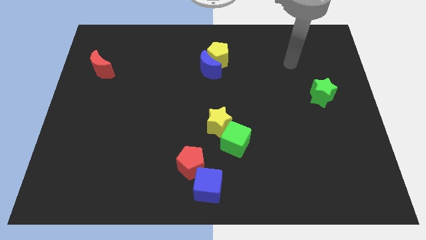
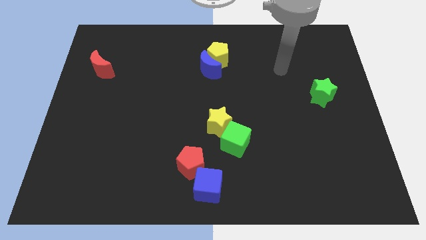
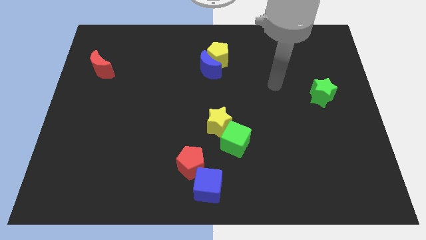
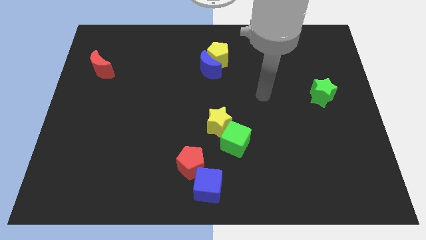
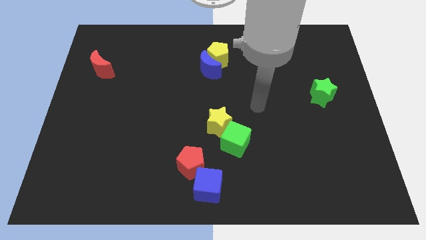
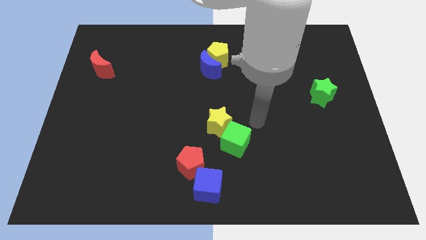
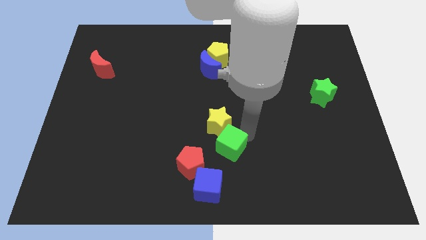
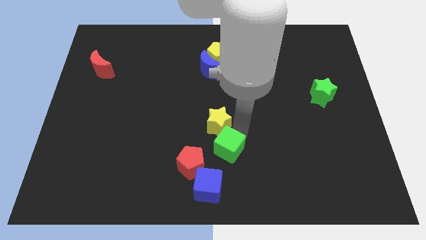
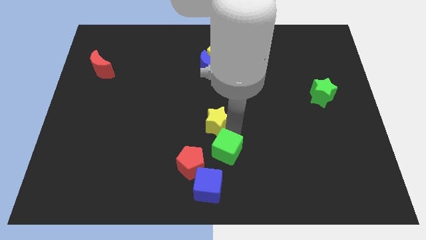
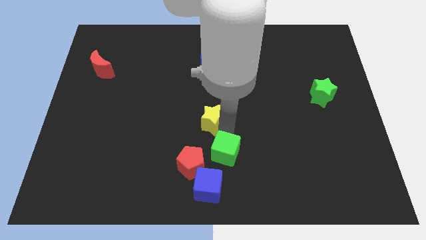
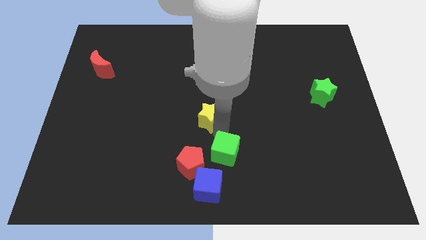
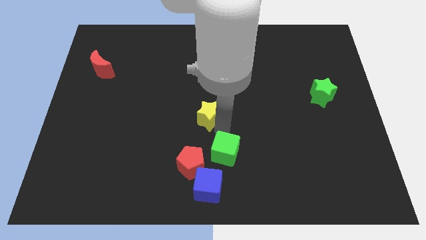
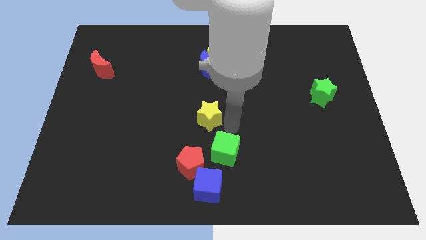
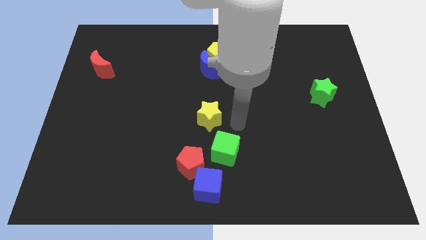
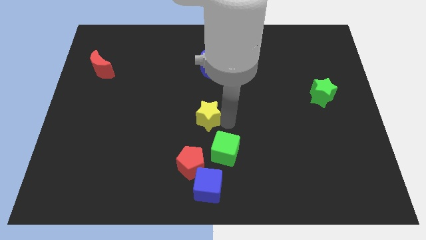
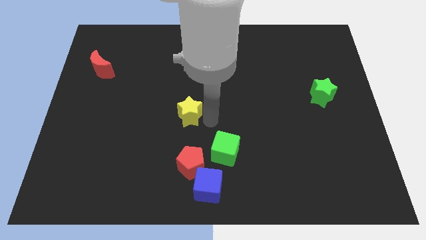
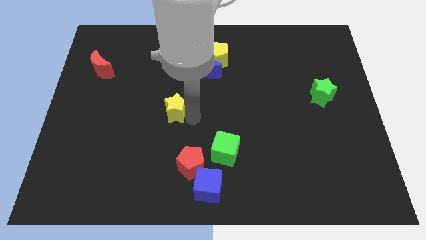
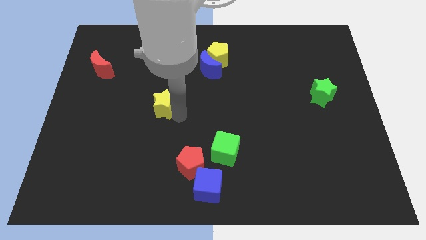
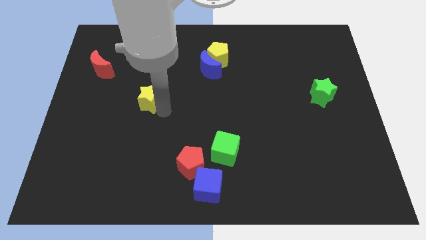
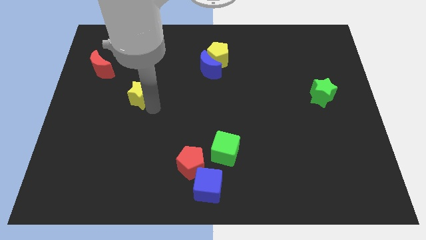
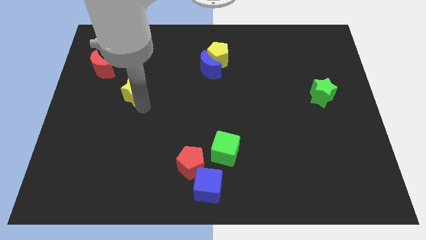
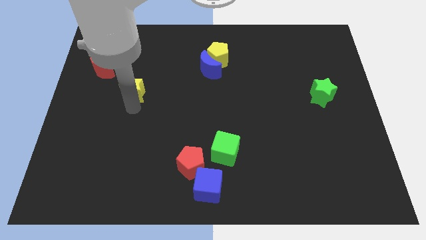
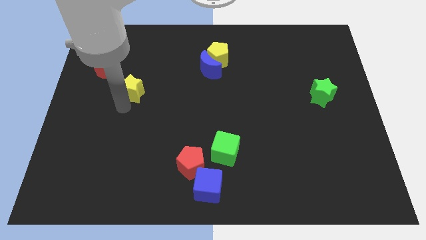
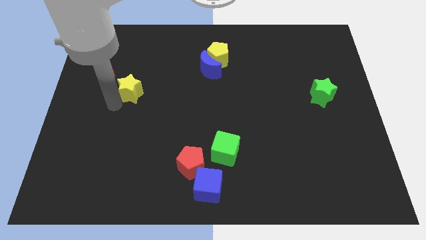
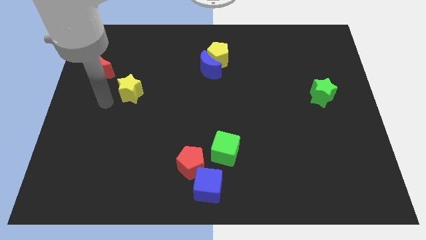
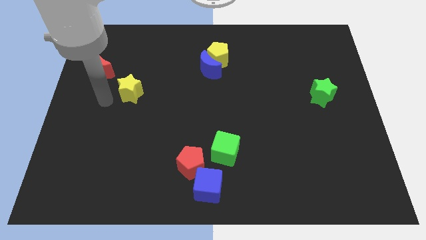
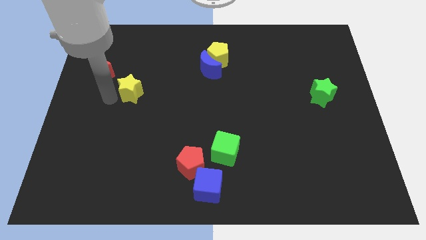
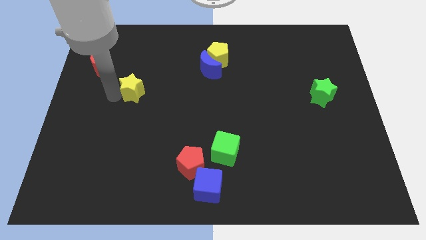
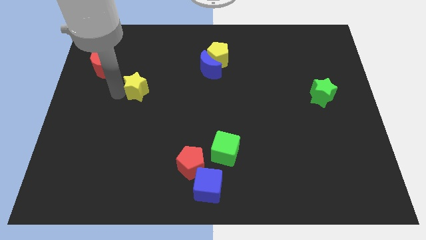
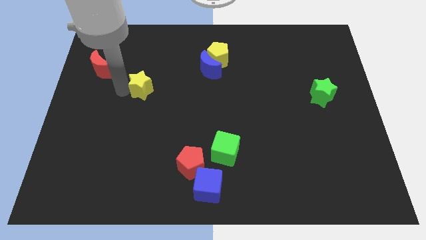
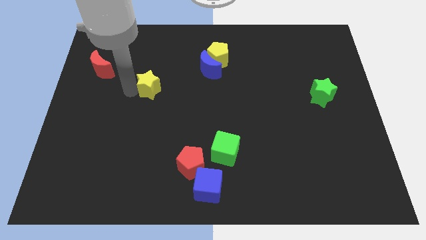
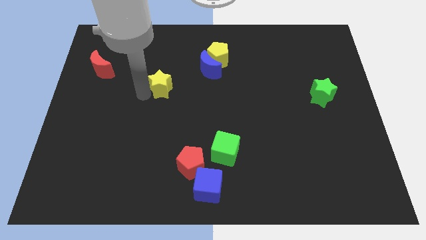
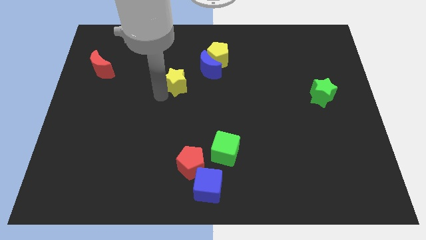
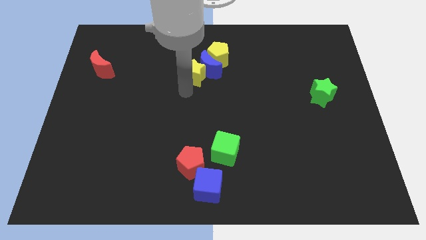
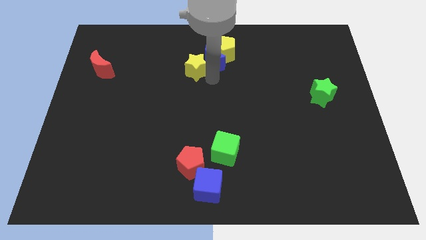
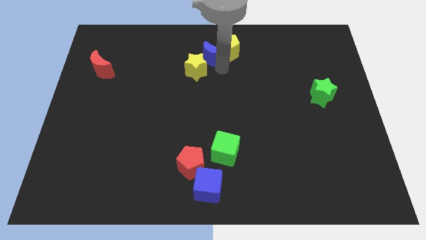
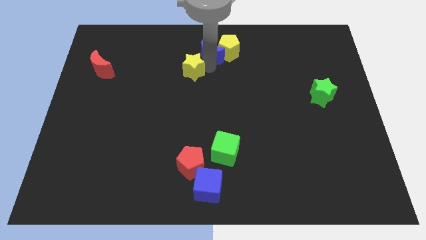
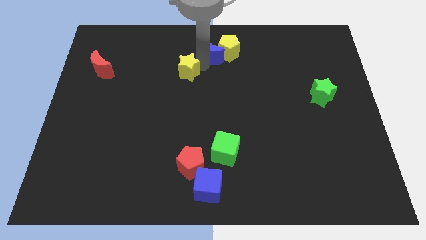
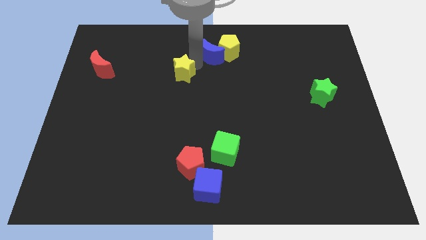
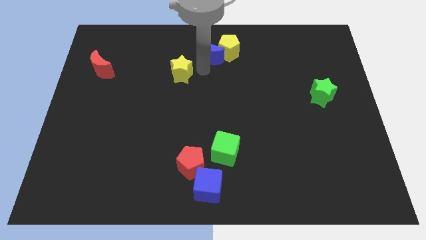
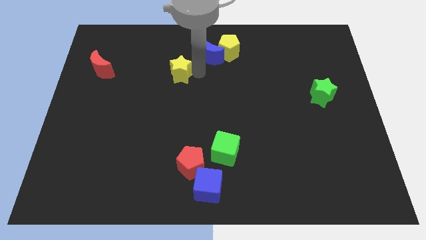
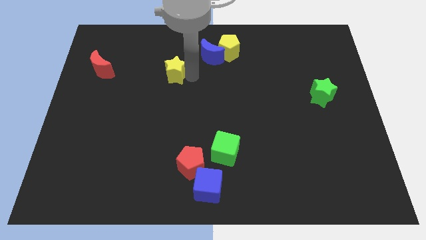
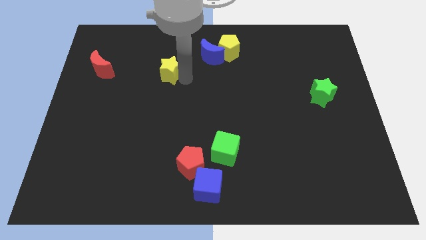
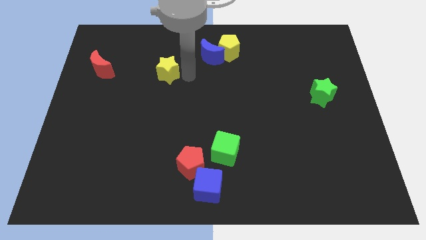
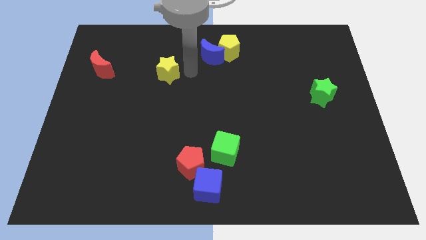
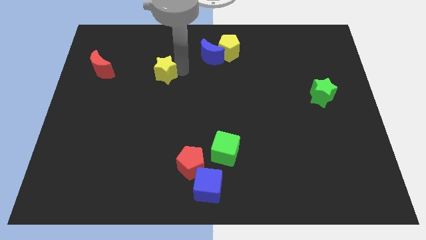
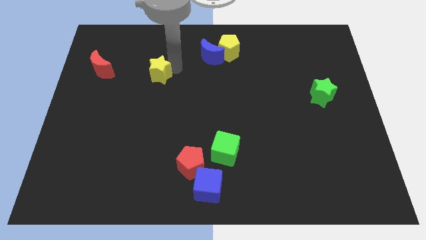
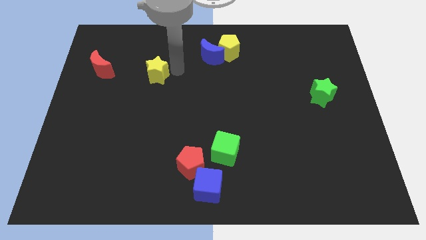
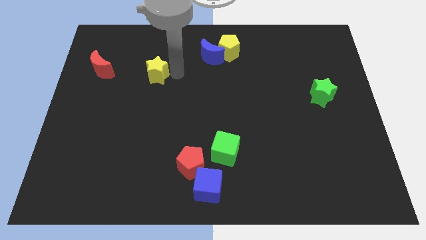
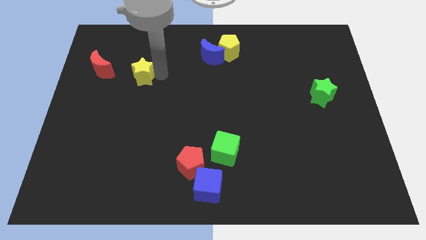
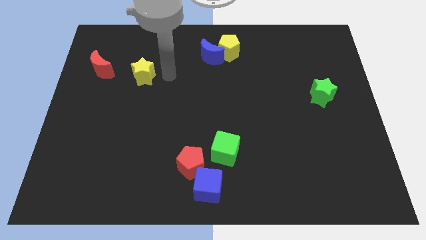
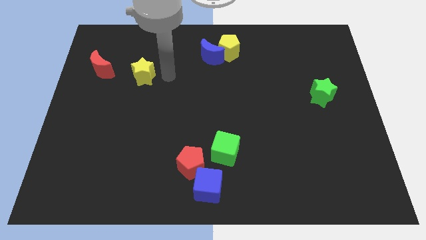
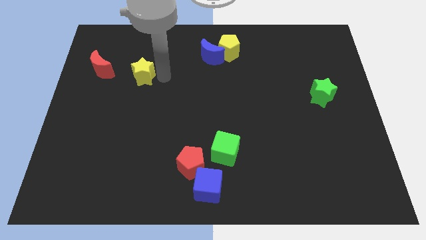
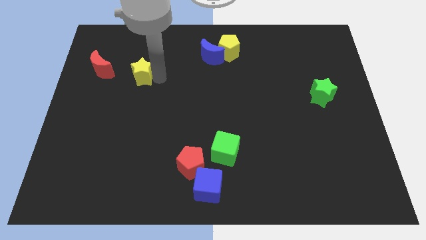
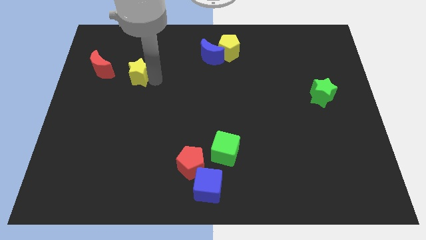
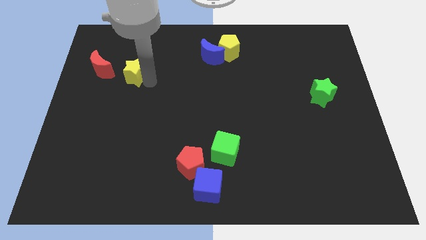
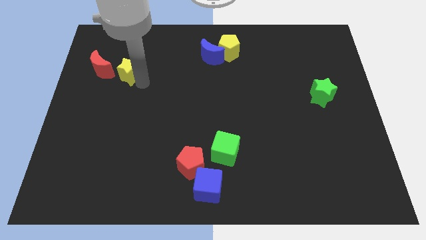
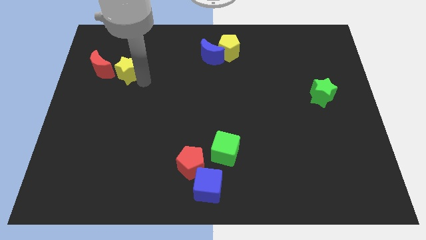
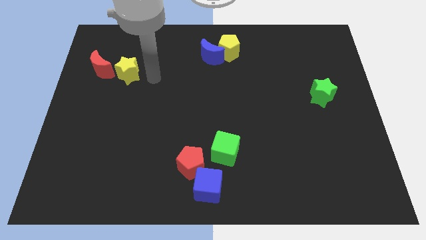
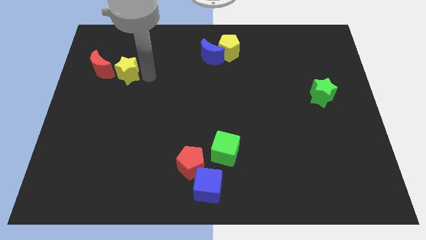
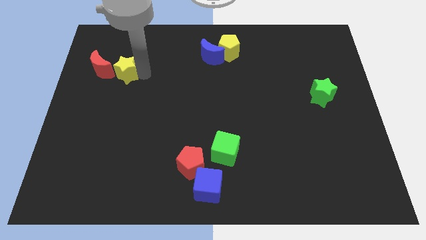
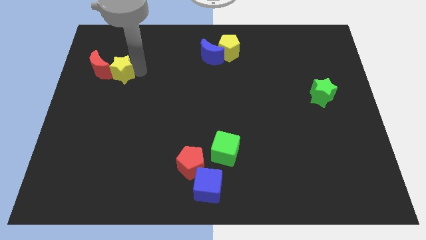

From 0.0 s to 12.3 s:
move the yellow star to the red moon

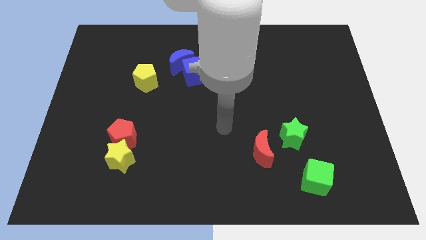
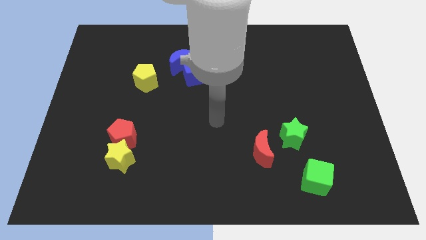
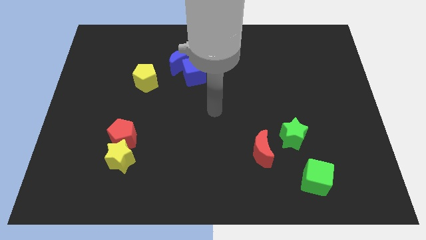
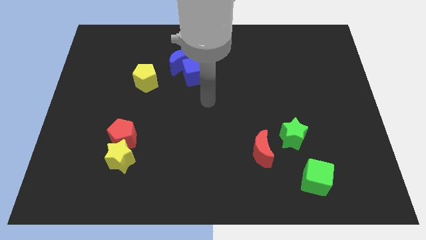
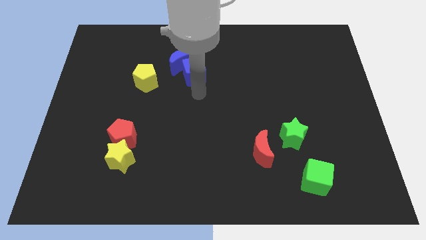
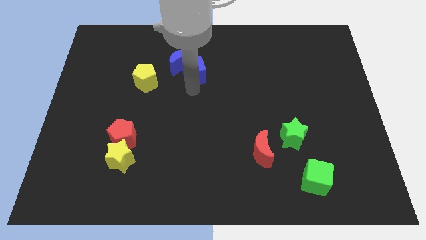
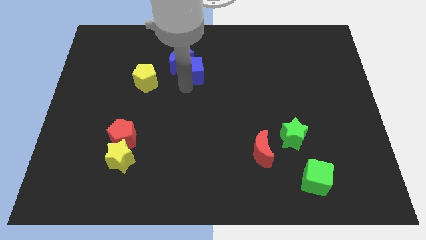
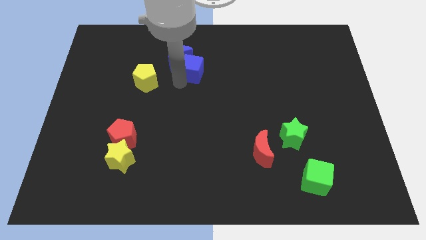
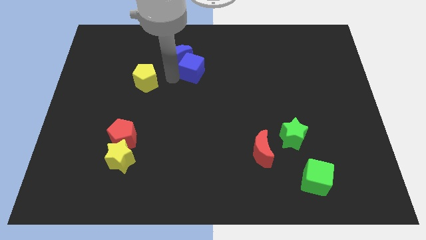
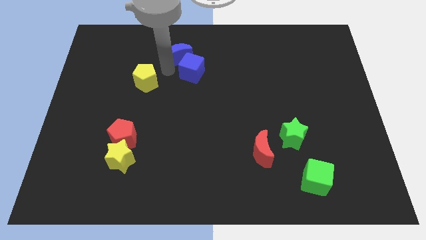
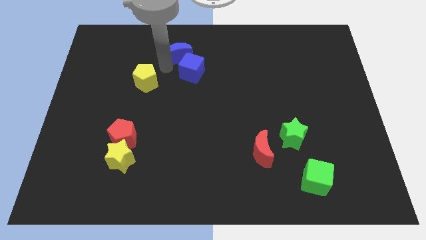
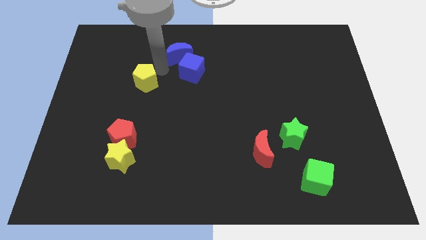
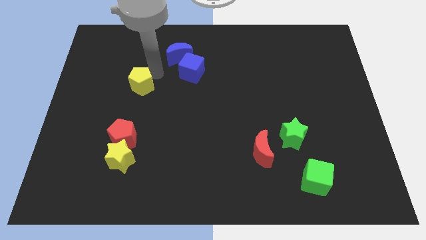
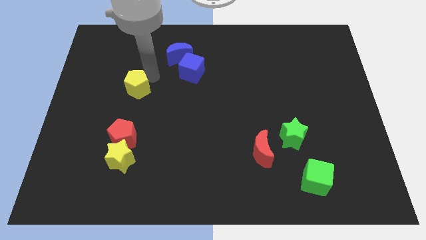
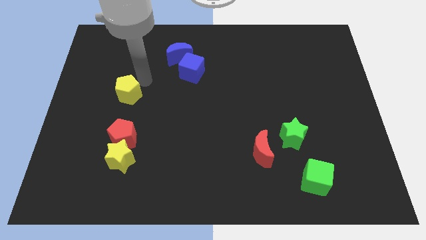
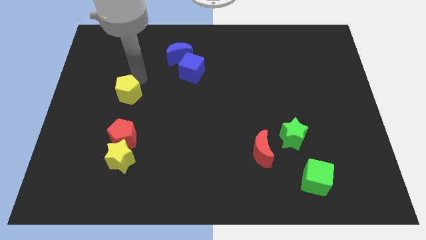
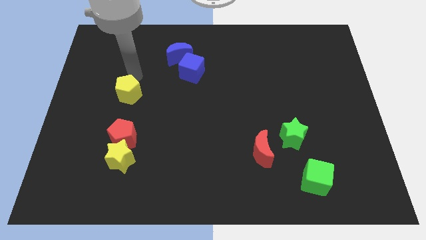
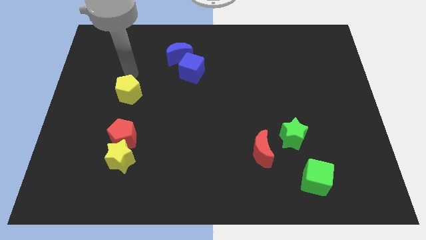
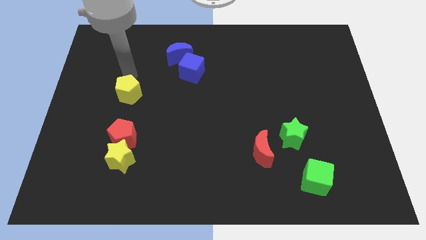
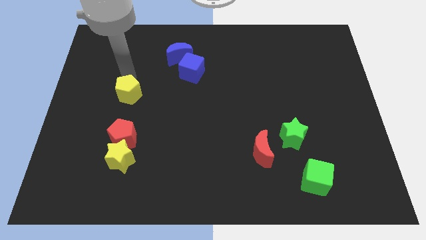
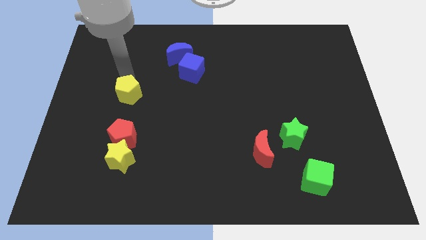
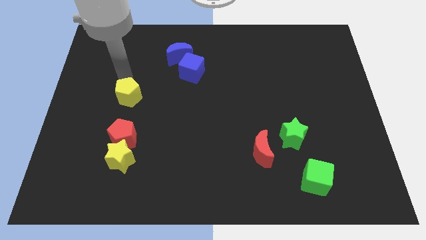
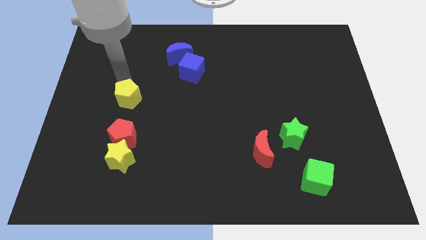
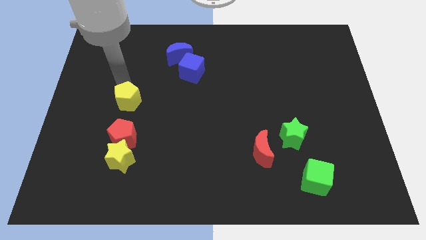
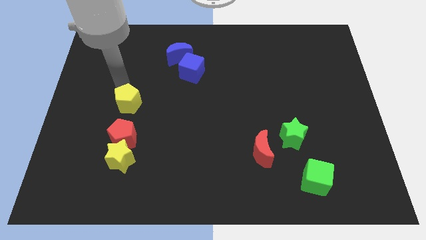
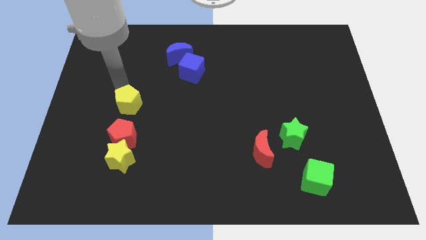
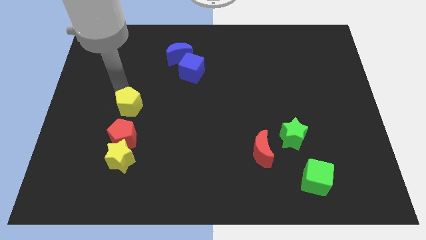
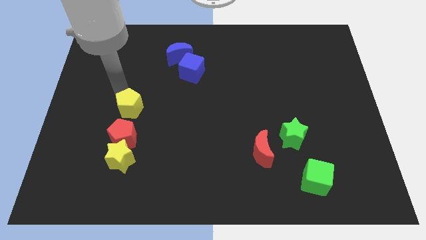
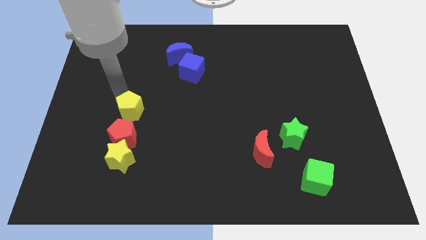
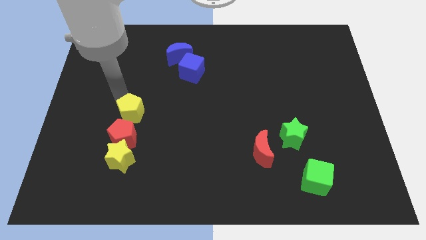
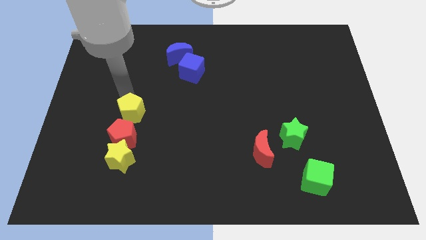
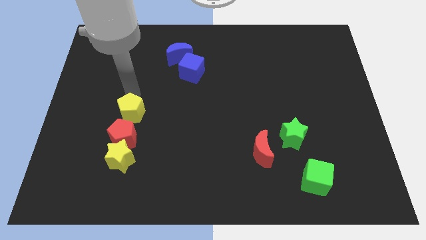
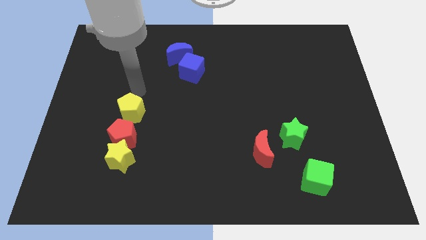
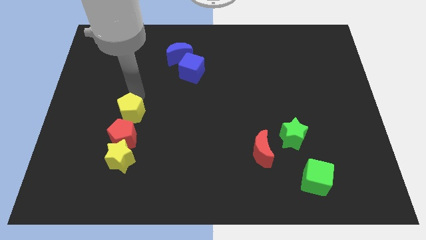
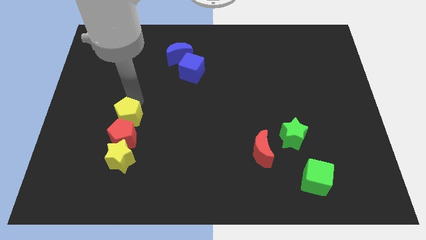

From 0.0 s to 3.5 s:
put the yellow pentagon towards the red pentagon
